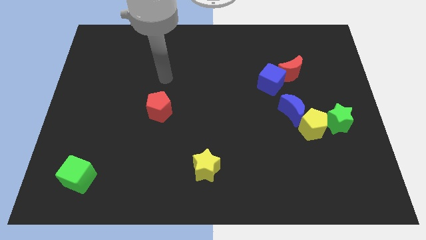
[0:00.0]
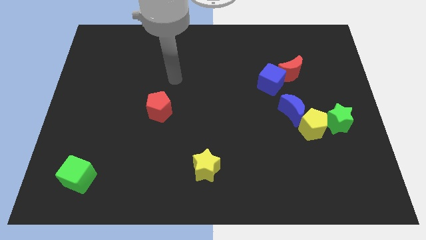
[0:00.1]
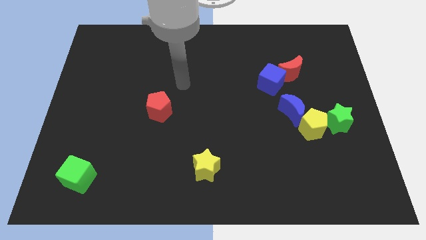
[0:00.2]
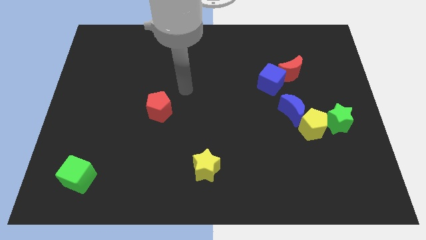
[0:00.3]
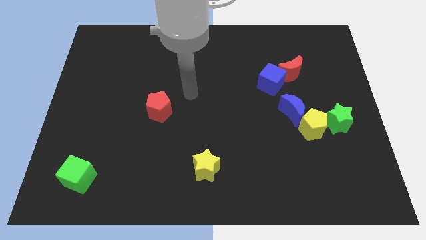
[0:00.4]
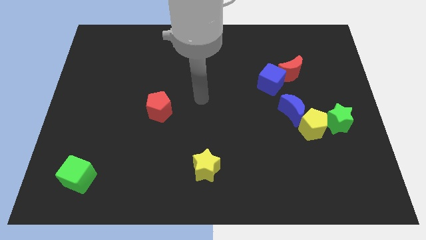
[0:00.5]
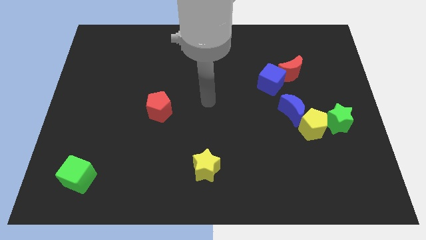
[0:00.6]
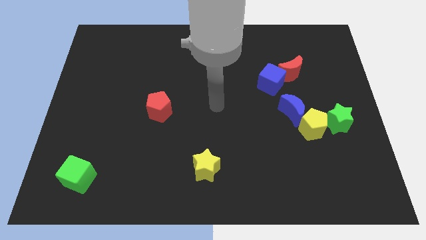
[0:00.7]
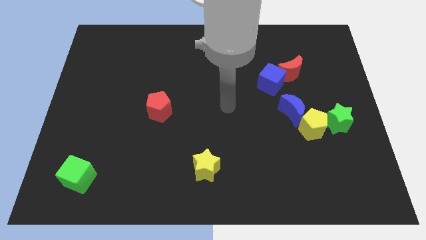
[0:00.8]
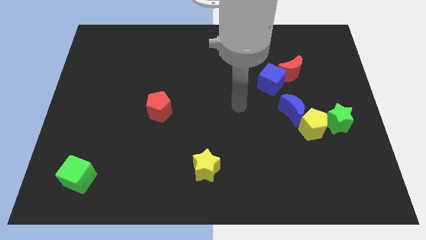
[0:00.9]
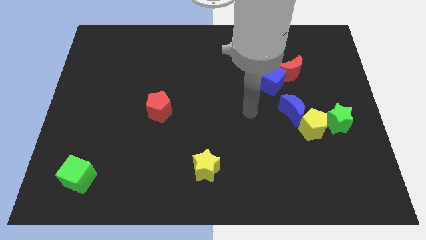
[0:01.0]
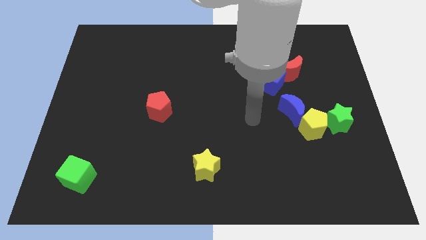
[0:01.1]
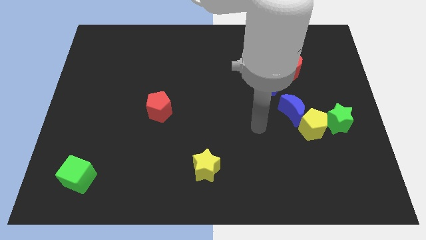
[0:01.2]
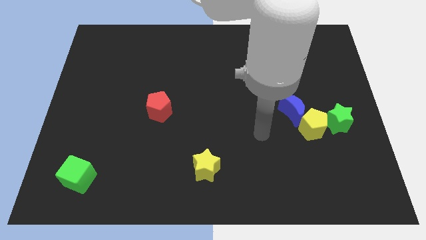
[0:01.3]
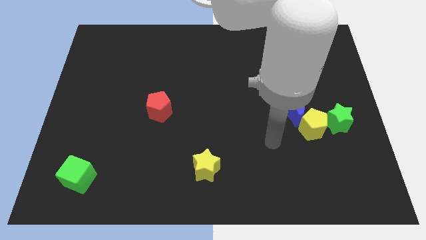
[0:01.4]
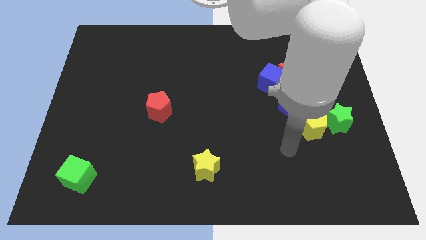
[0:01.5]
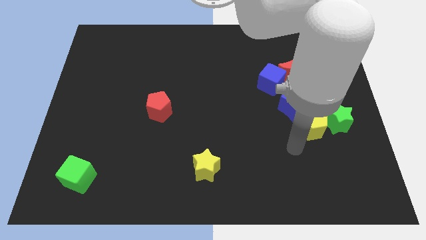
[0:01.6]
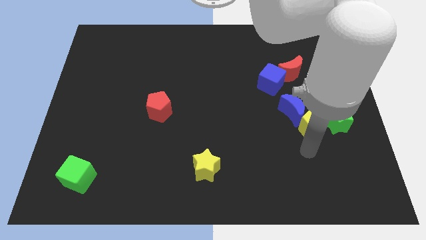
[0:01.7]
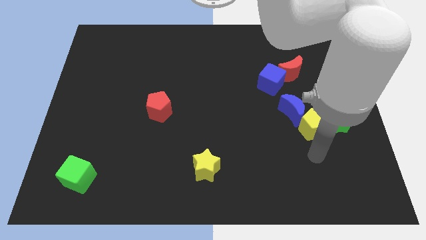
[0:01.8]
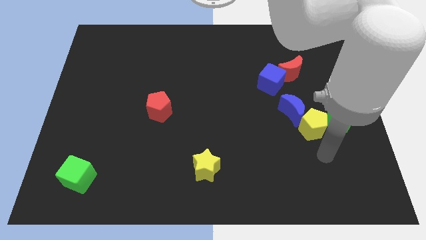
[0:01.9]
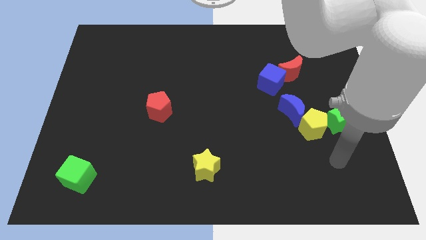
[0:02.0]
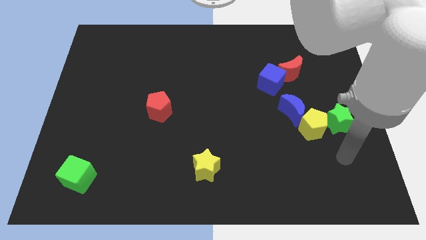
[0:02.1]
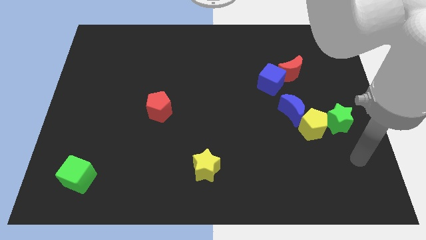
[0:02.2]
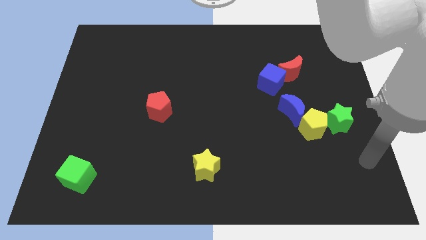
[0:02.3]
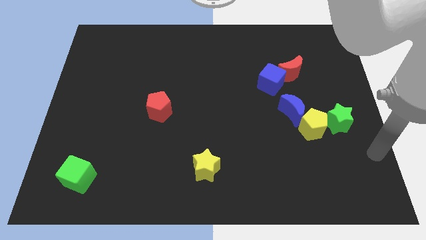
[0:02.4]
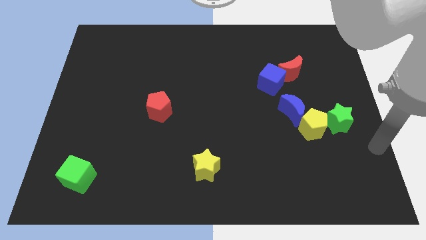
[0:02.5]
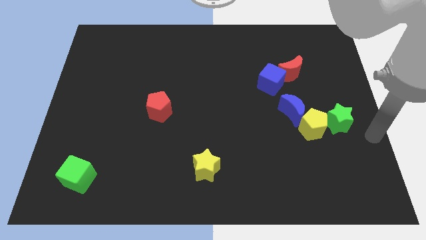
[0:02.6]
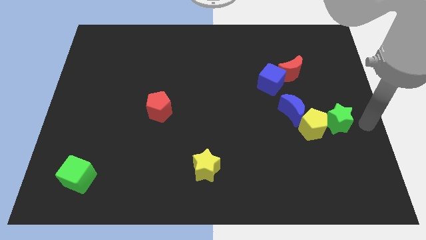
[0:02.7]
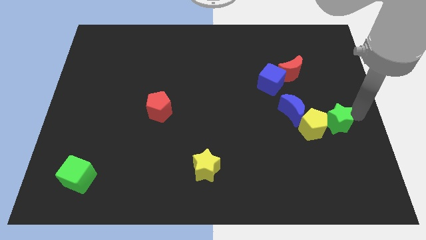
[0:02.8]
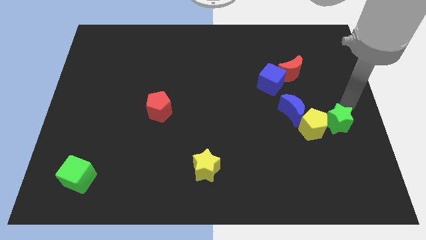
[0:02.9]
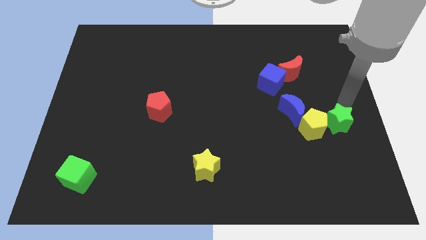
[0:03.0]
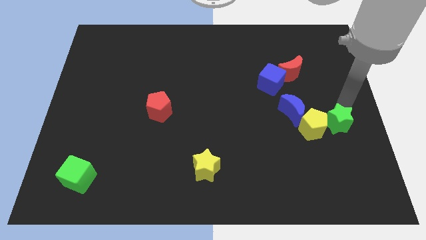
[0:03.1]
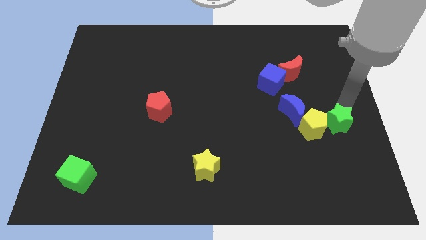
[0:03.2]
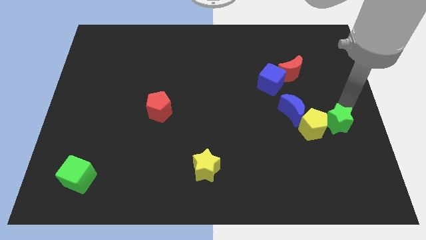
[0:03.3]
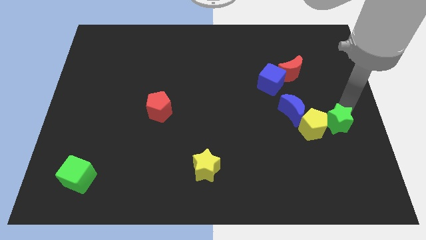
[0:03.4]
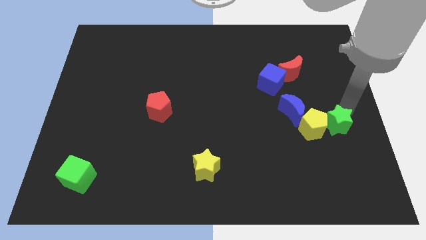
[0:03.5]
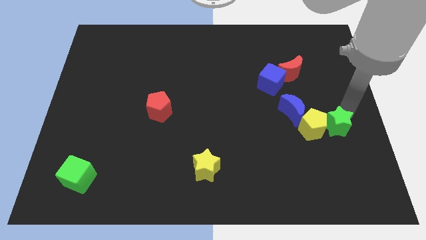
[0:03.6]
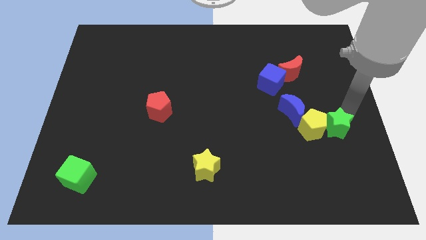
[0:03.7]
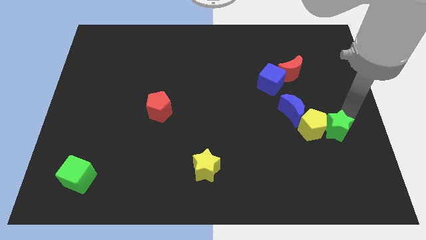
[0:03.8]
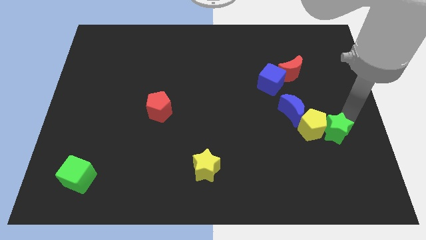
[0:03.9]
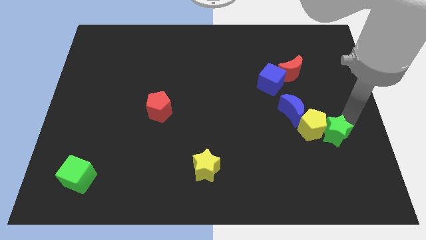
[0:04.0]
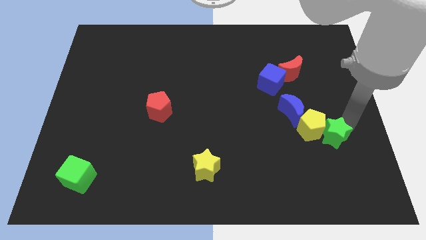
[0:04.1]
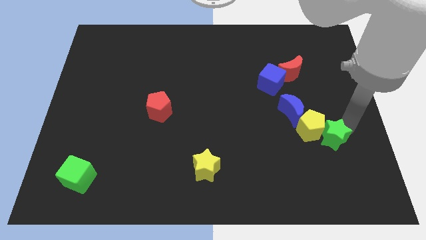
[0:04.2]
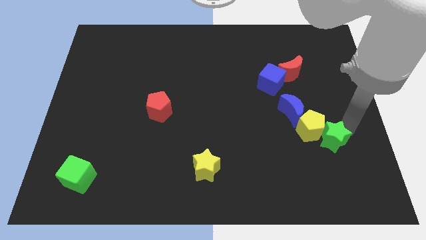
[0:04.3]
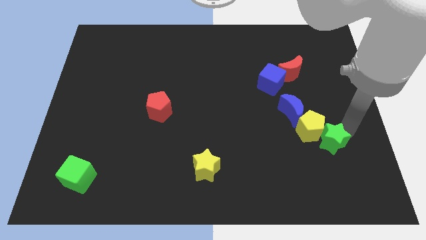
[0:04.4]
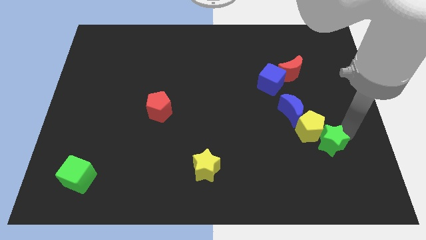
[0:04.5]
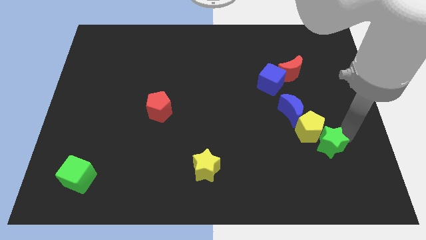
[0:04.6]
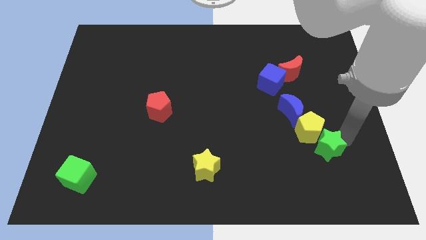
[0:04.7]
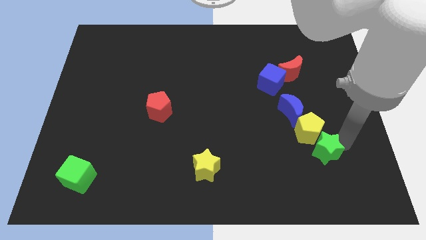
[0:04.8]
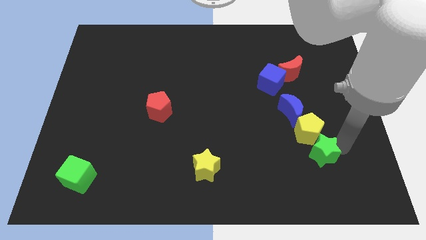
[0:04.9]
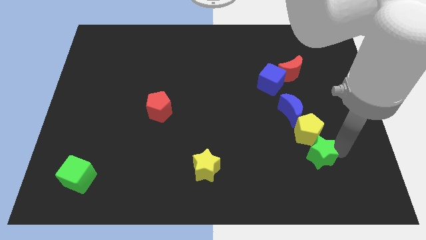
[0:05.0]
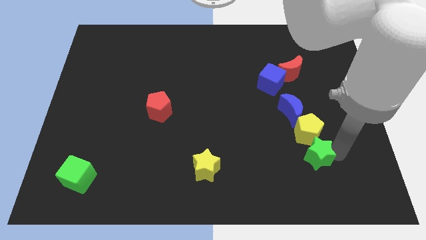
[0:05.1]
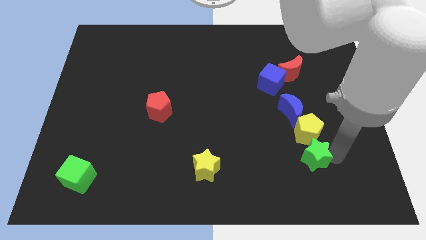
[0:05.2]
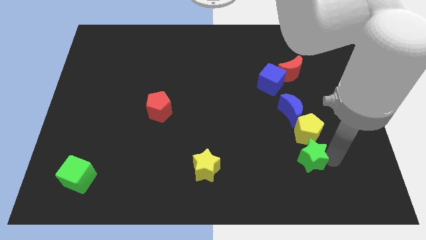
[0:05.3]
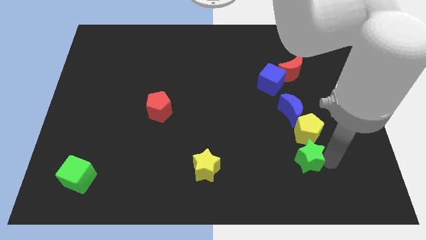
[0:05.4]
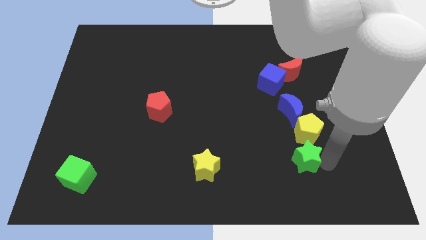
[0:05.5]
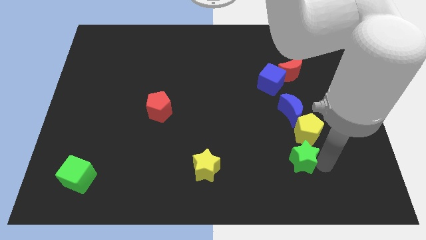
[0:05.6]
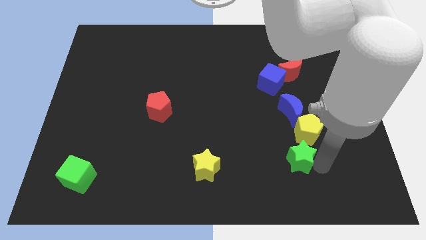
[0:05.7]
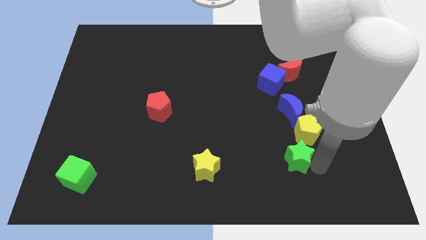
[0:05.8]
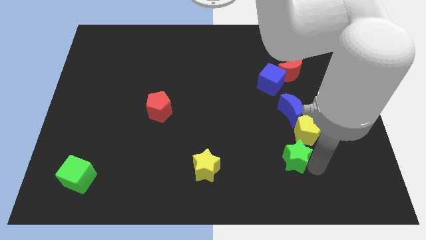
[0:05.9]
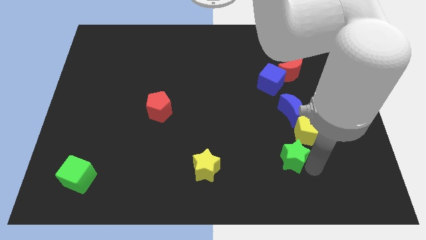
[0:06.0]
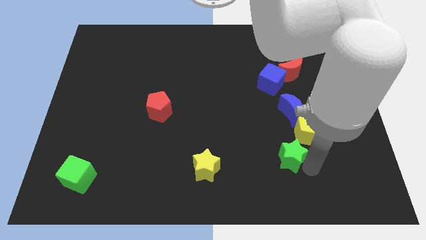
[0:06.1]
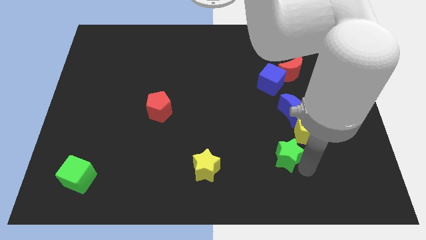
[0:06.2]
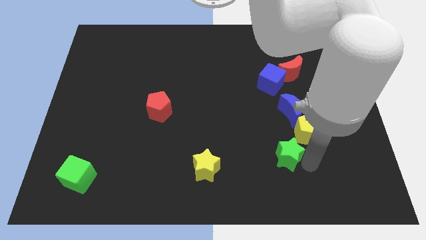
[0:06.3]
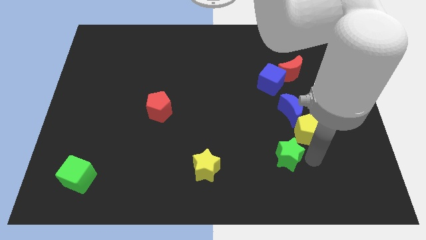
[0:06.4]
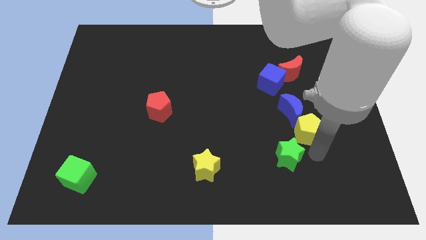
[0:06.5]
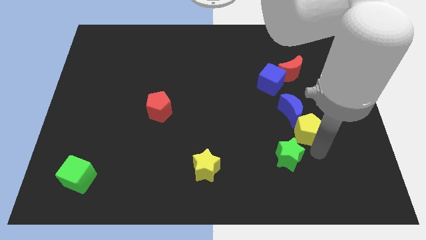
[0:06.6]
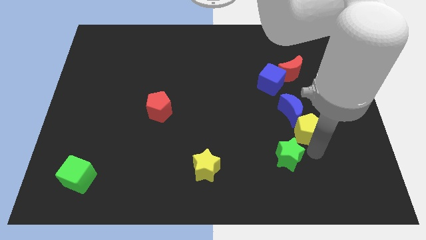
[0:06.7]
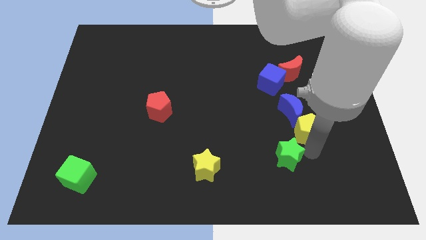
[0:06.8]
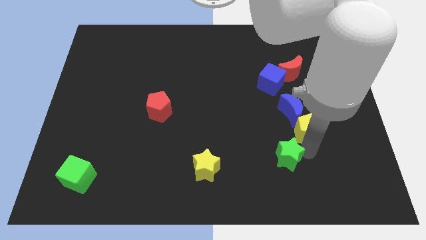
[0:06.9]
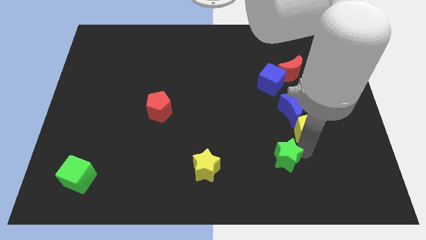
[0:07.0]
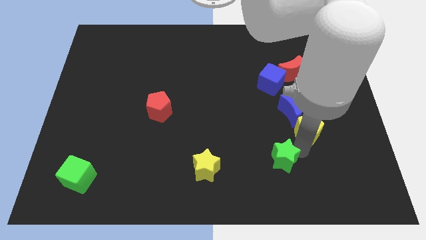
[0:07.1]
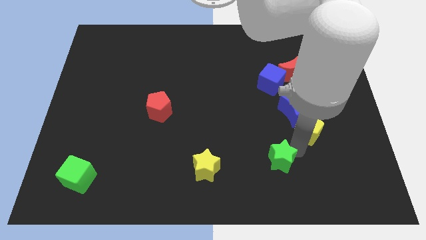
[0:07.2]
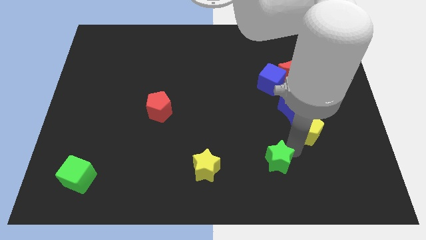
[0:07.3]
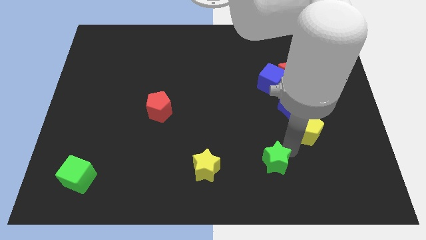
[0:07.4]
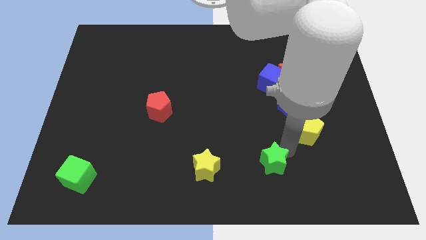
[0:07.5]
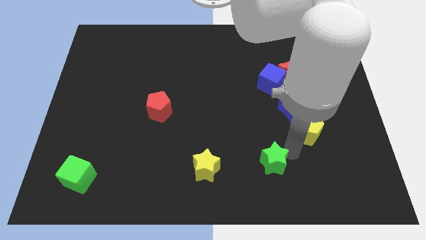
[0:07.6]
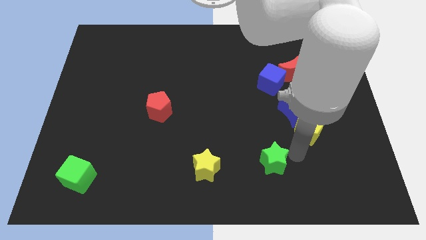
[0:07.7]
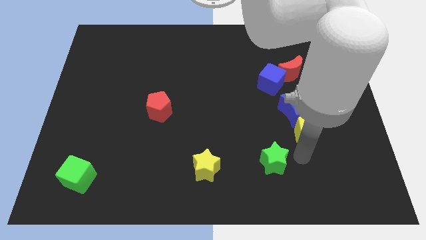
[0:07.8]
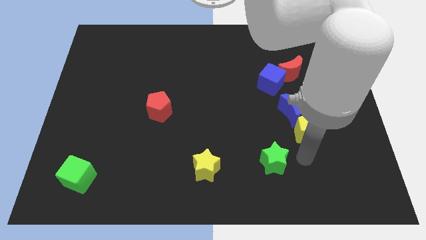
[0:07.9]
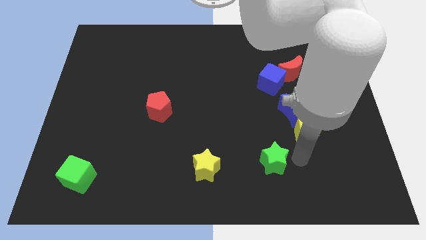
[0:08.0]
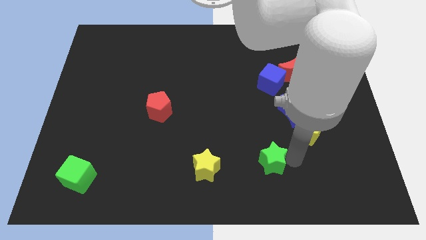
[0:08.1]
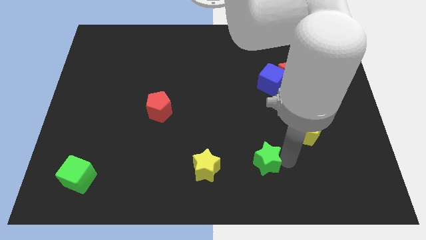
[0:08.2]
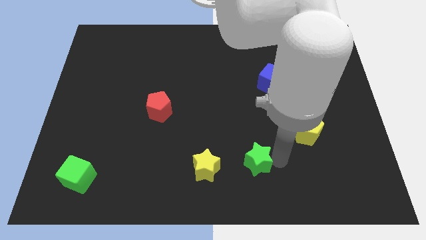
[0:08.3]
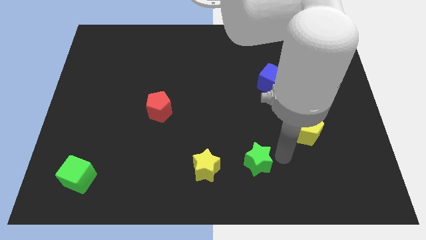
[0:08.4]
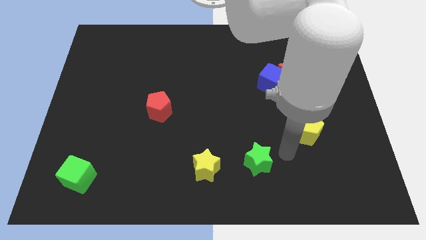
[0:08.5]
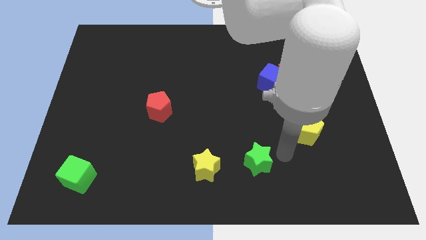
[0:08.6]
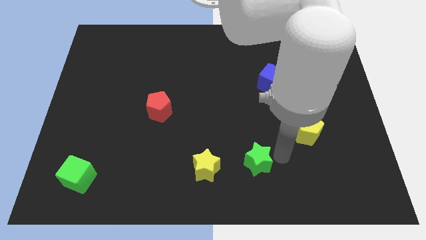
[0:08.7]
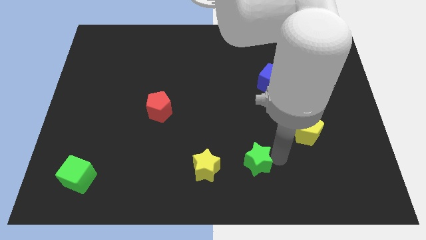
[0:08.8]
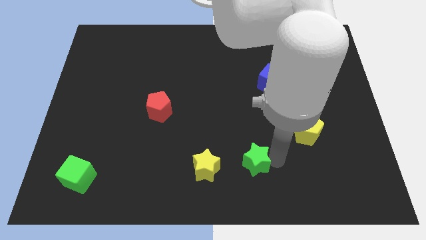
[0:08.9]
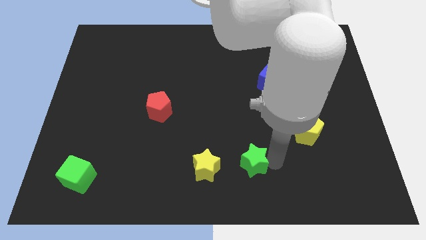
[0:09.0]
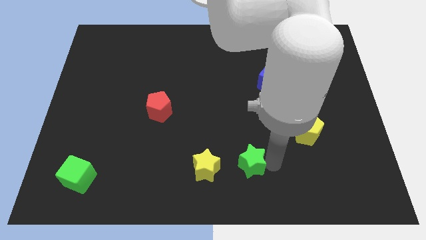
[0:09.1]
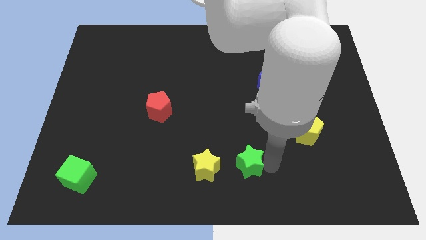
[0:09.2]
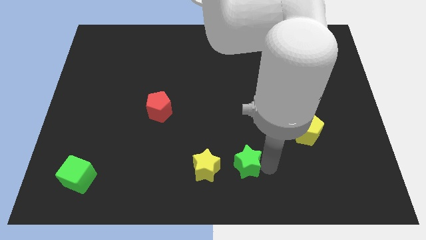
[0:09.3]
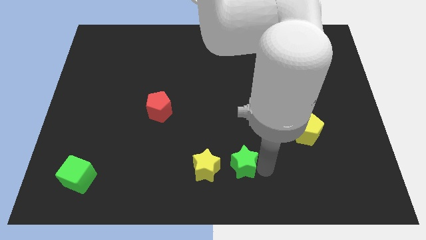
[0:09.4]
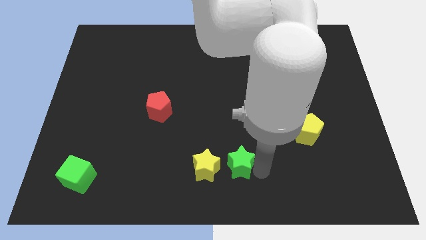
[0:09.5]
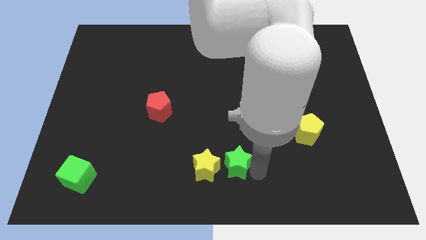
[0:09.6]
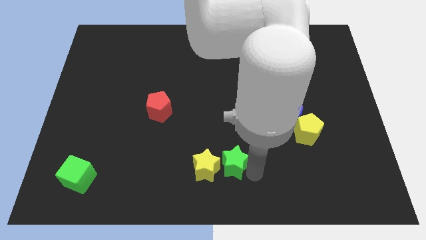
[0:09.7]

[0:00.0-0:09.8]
push the green star next to the yellow star
